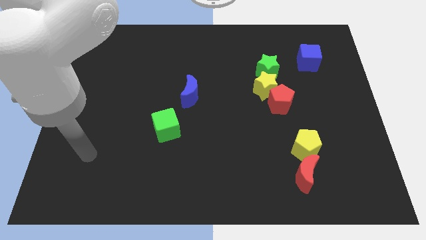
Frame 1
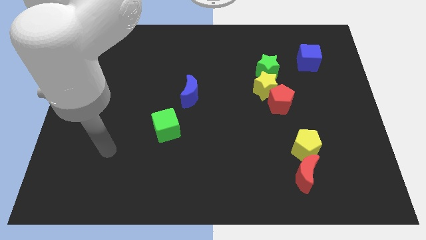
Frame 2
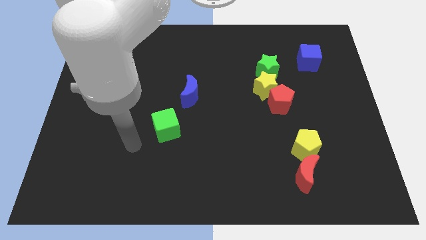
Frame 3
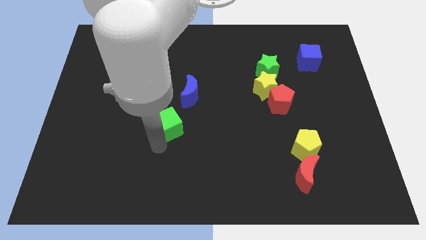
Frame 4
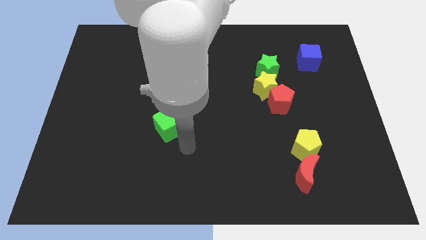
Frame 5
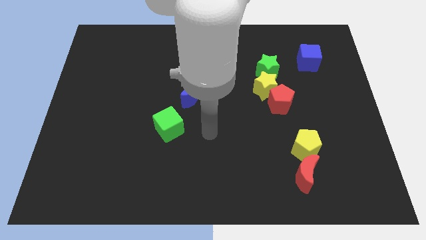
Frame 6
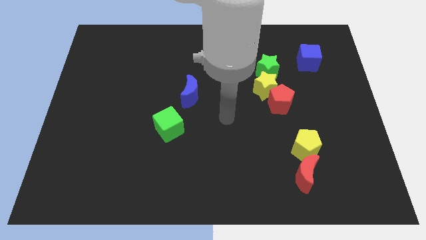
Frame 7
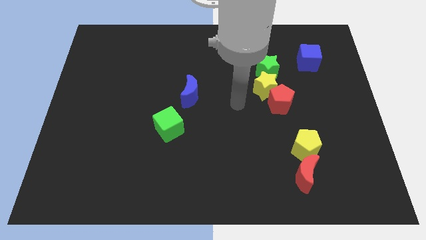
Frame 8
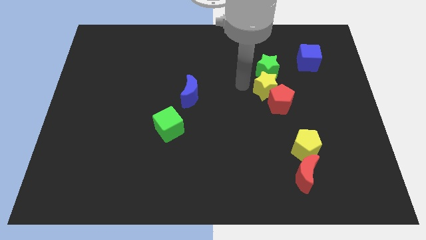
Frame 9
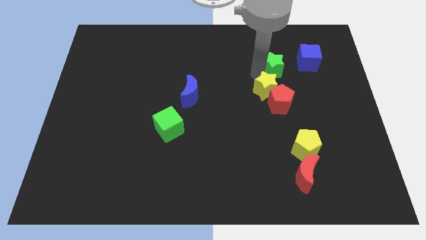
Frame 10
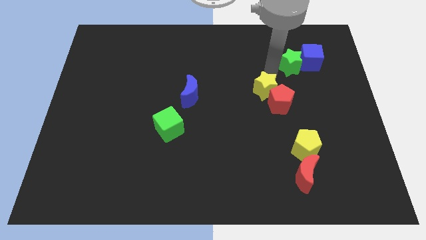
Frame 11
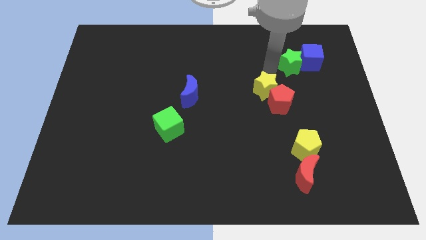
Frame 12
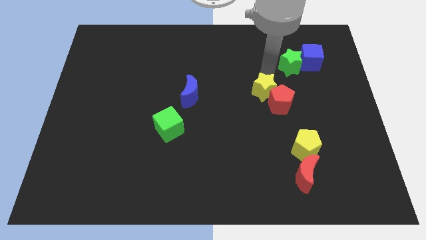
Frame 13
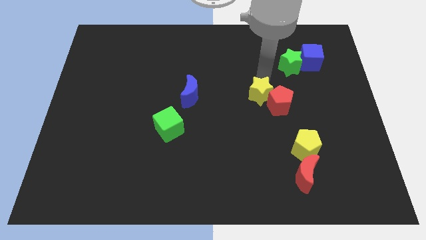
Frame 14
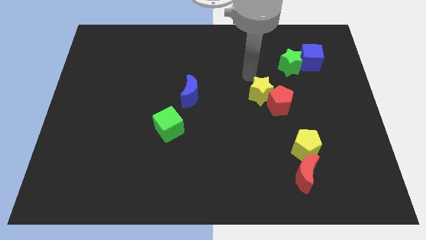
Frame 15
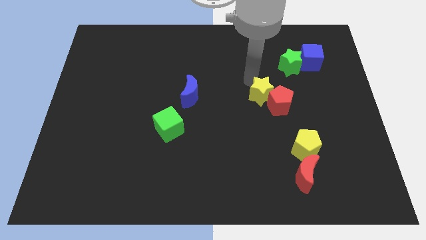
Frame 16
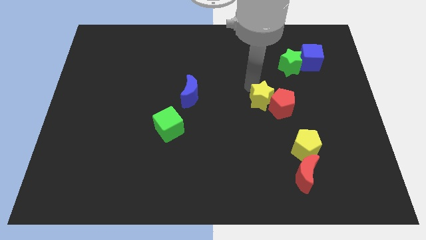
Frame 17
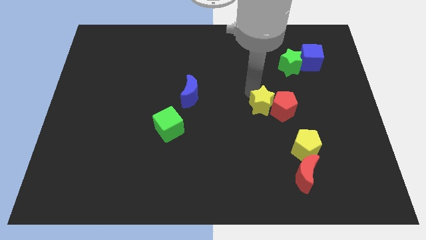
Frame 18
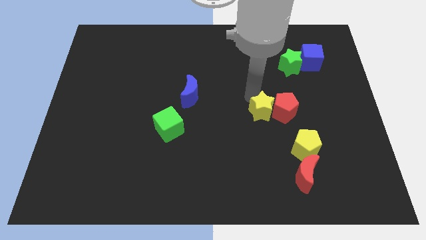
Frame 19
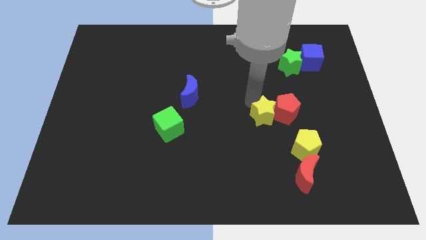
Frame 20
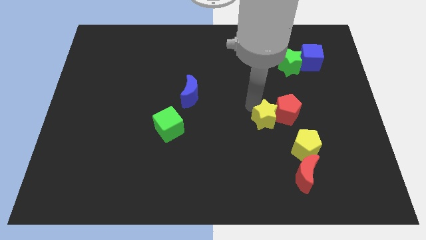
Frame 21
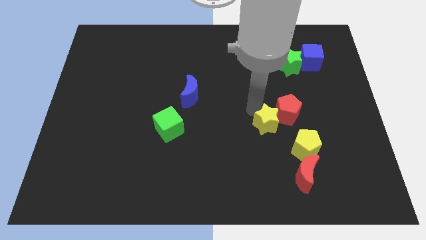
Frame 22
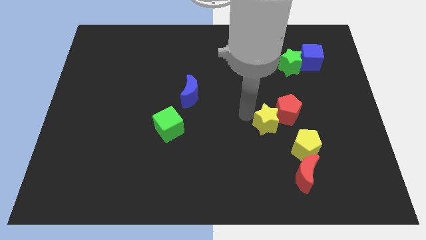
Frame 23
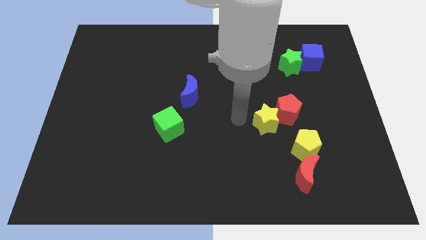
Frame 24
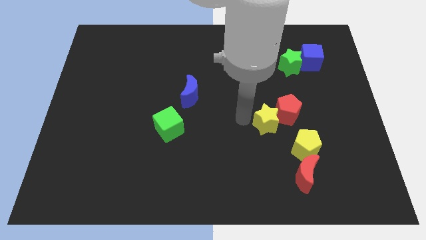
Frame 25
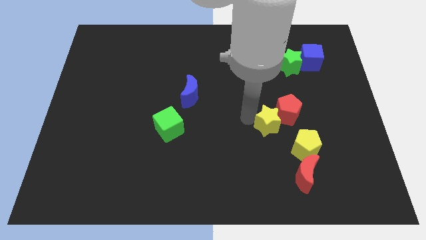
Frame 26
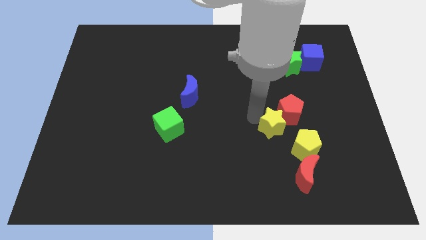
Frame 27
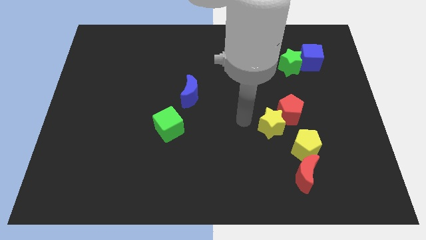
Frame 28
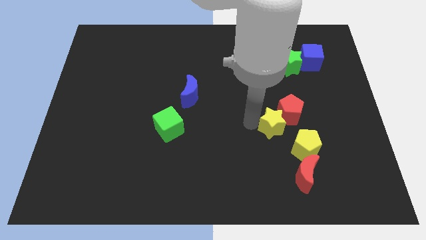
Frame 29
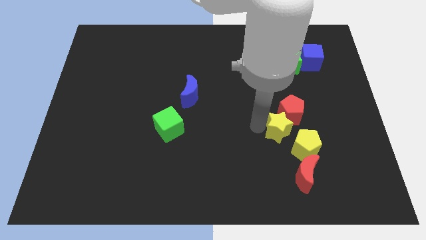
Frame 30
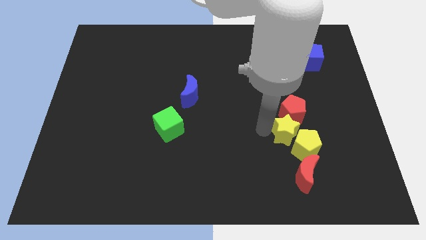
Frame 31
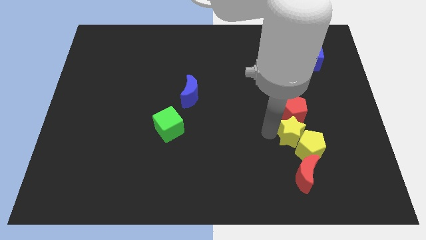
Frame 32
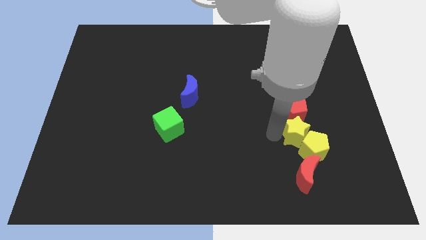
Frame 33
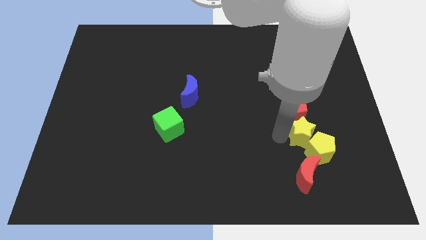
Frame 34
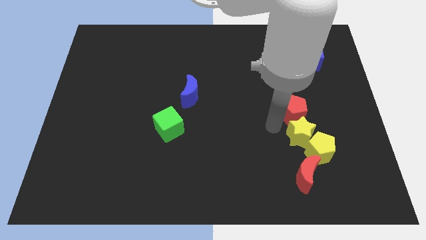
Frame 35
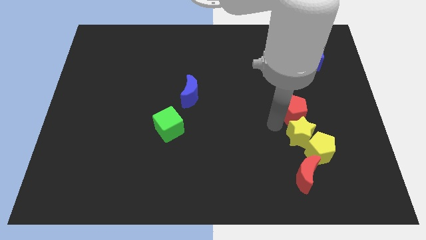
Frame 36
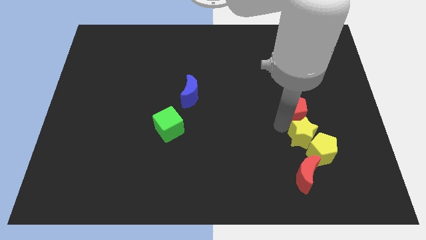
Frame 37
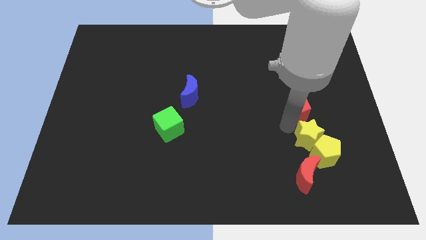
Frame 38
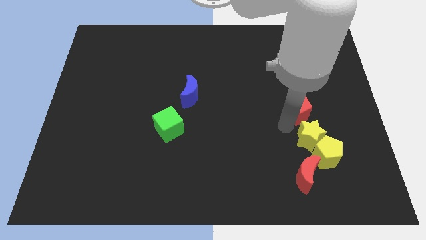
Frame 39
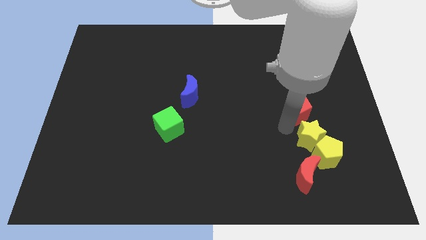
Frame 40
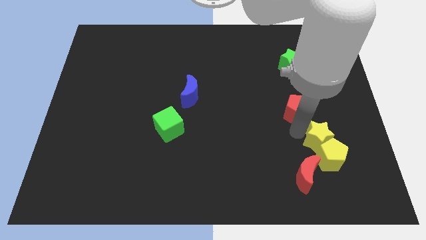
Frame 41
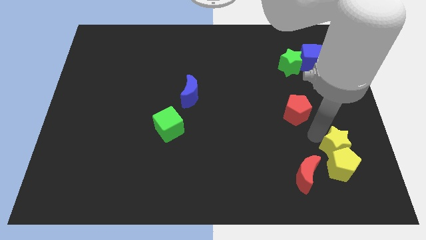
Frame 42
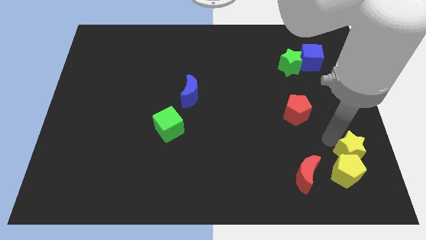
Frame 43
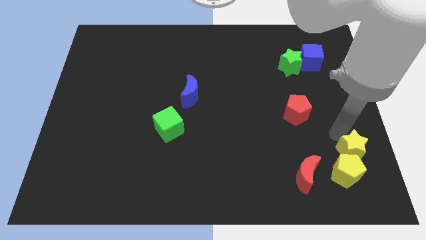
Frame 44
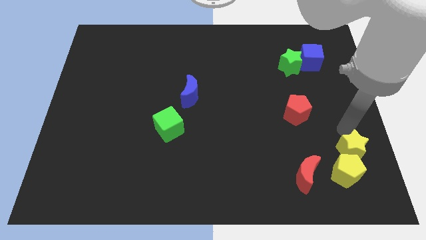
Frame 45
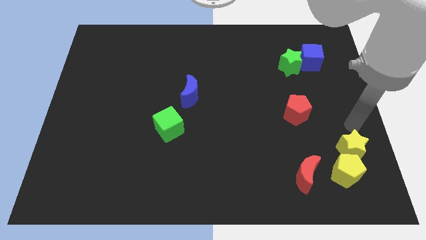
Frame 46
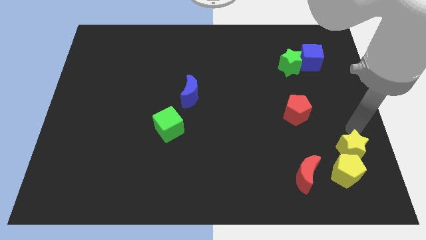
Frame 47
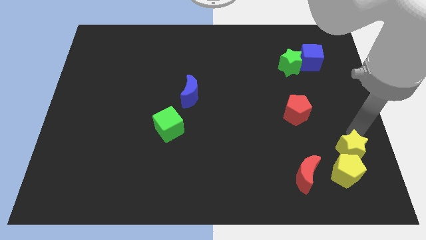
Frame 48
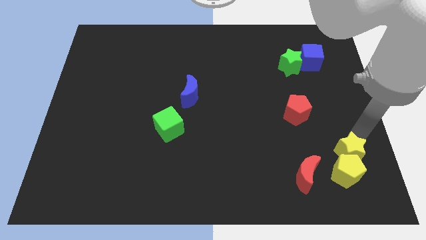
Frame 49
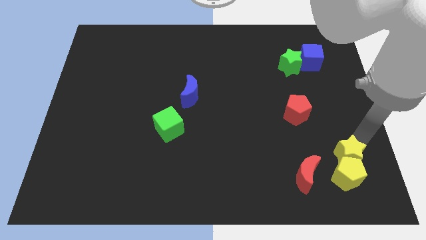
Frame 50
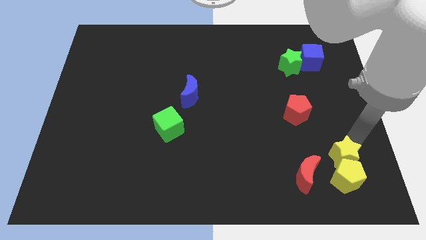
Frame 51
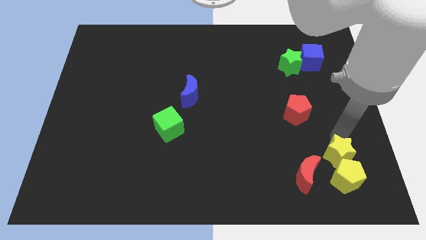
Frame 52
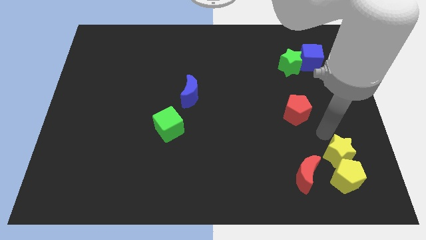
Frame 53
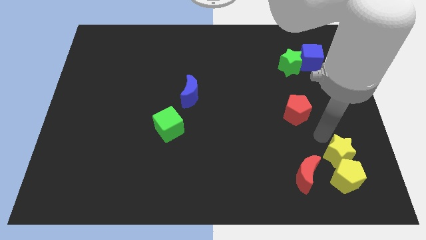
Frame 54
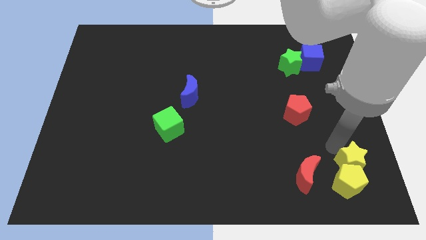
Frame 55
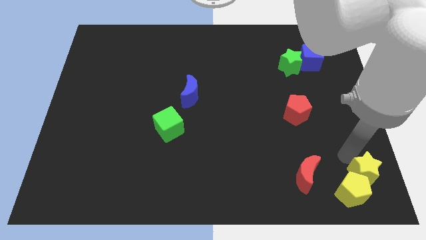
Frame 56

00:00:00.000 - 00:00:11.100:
slide the yellow star to the bottom right
